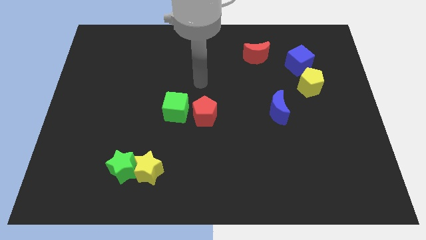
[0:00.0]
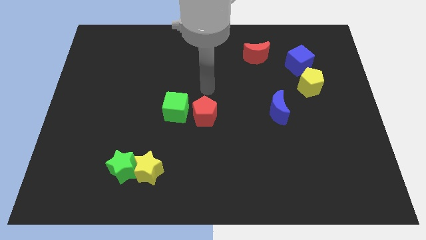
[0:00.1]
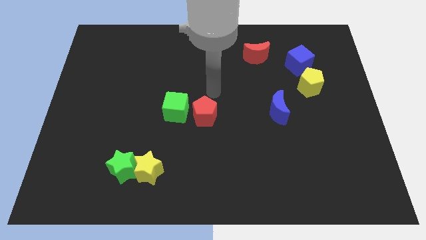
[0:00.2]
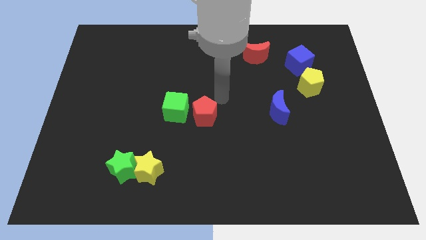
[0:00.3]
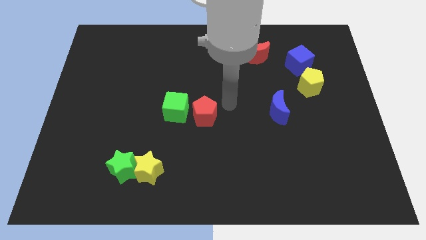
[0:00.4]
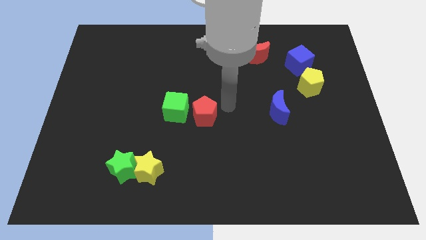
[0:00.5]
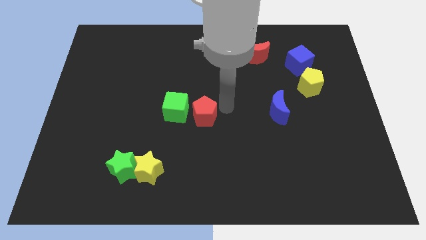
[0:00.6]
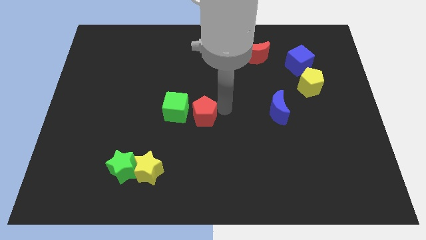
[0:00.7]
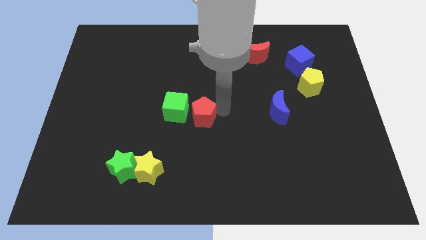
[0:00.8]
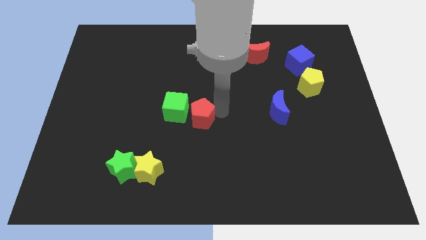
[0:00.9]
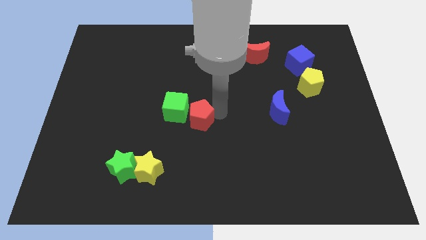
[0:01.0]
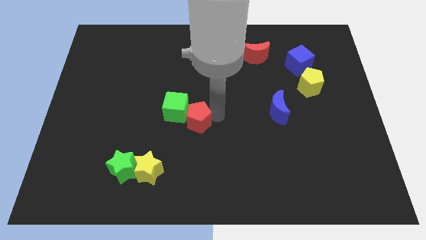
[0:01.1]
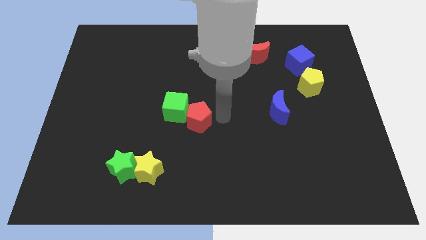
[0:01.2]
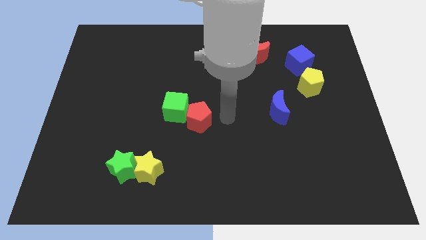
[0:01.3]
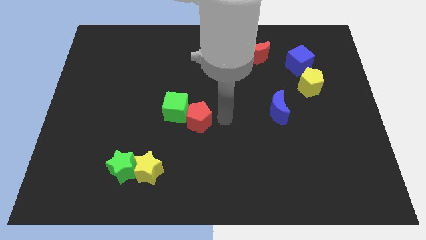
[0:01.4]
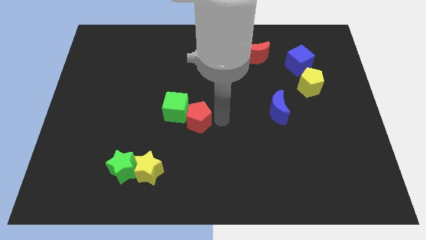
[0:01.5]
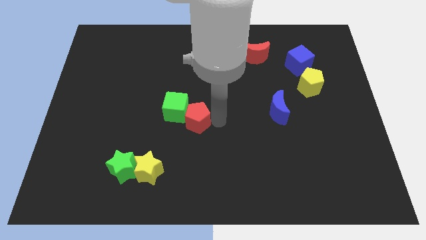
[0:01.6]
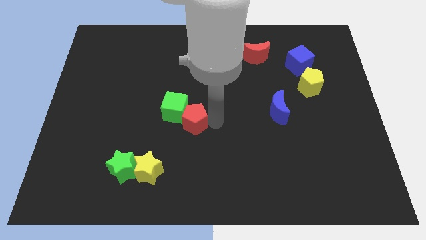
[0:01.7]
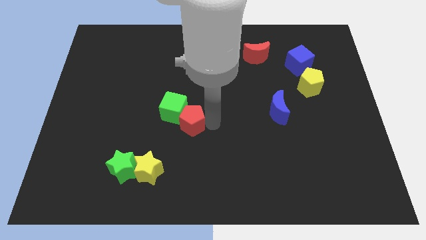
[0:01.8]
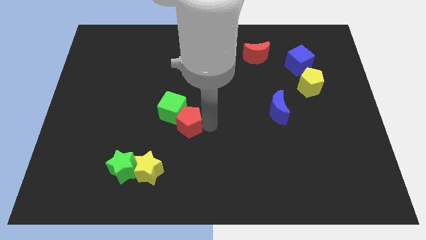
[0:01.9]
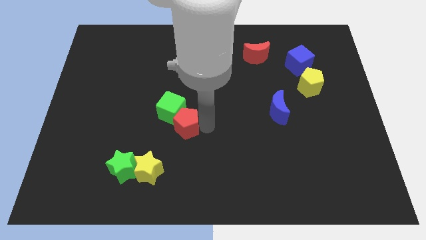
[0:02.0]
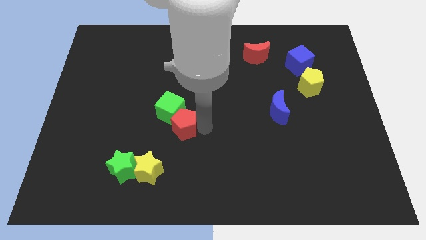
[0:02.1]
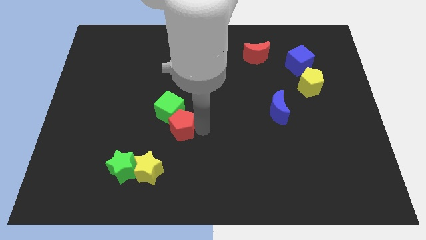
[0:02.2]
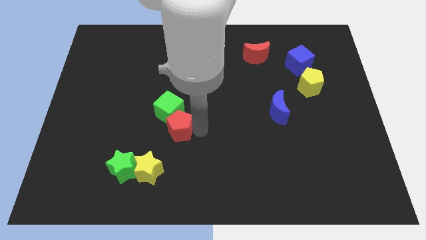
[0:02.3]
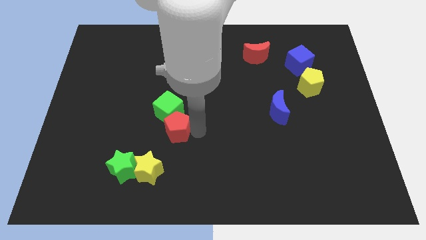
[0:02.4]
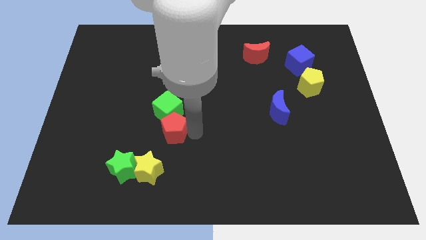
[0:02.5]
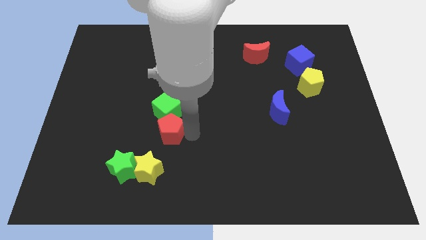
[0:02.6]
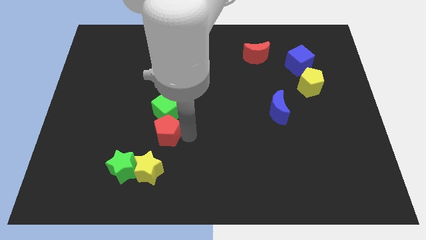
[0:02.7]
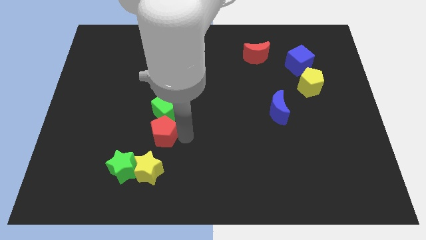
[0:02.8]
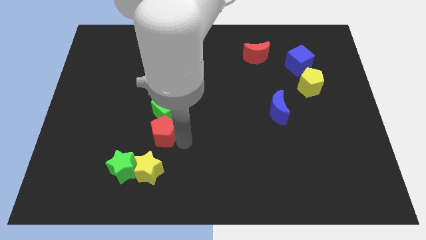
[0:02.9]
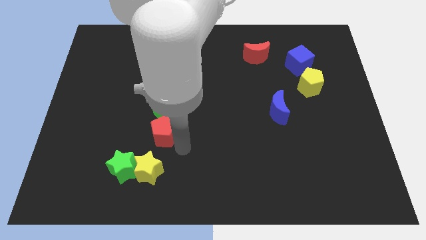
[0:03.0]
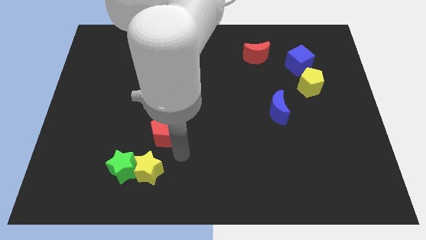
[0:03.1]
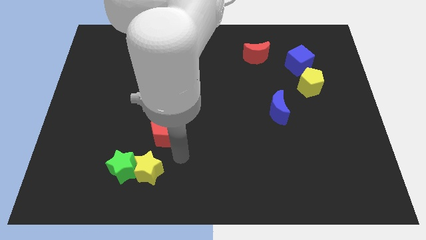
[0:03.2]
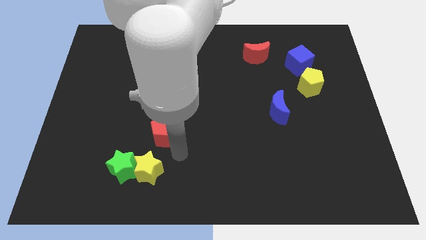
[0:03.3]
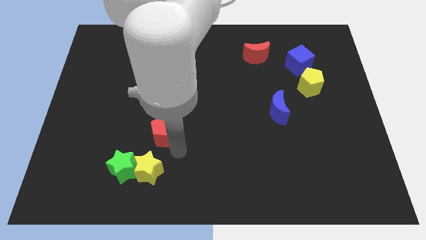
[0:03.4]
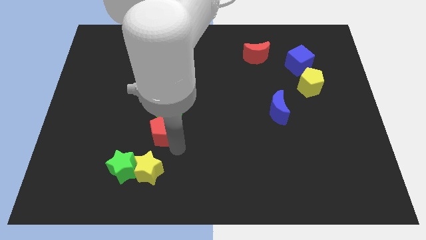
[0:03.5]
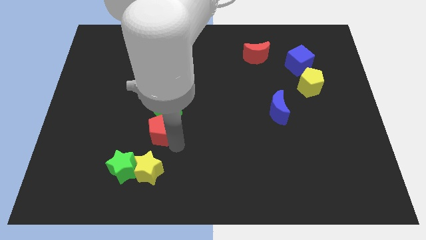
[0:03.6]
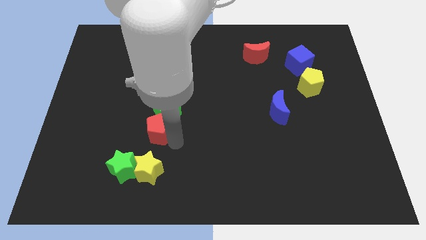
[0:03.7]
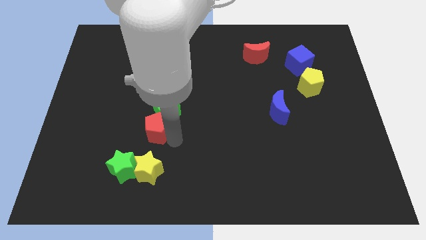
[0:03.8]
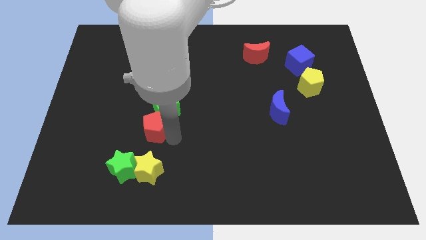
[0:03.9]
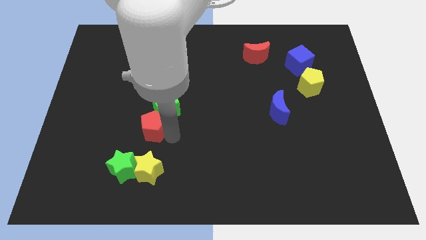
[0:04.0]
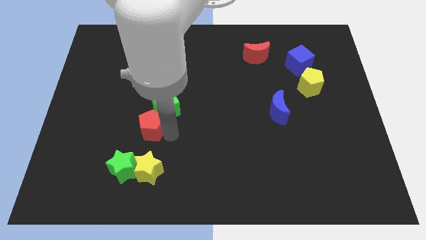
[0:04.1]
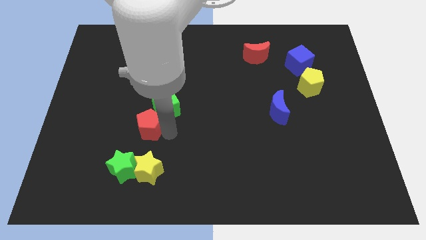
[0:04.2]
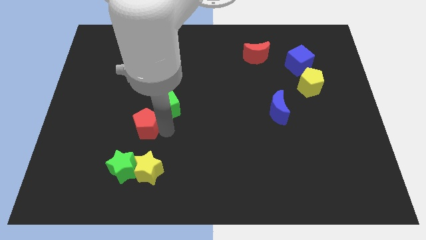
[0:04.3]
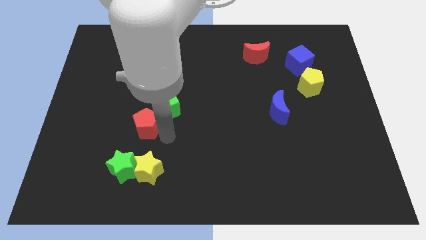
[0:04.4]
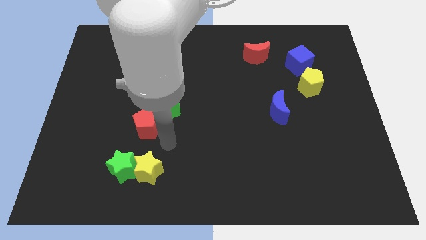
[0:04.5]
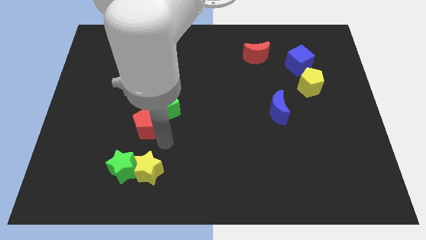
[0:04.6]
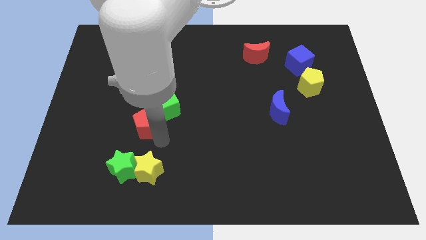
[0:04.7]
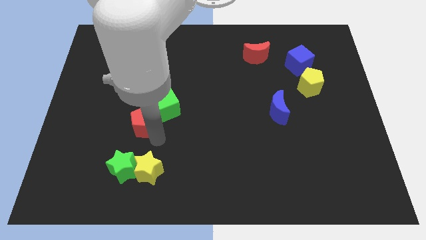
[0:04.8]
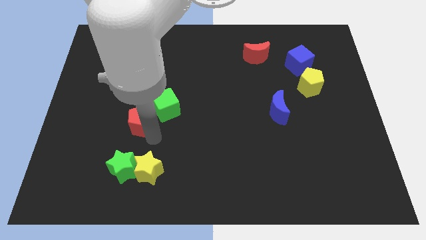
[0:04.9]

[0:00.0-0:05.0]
push the red pentagon to the left side of the green cube

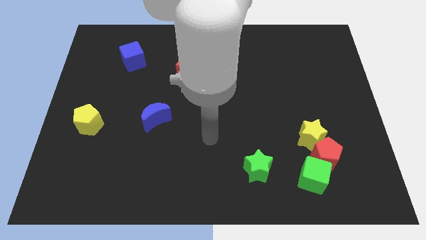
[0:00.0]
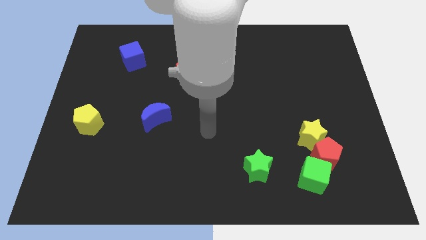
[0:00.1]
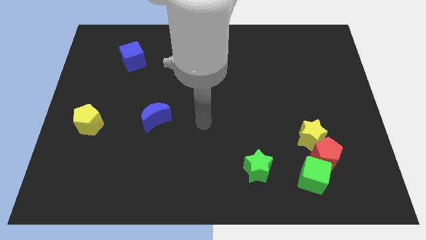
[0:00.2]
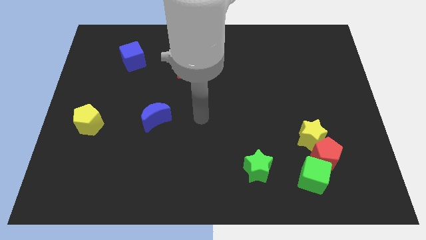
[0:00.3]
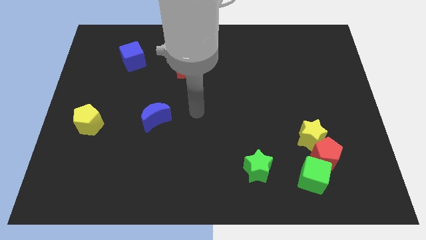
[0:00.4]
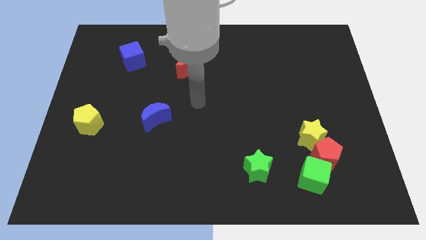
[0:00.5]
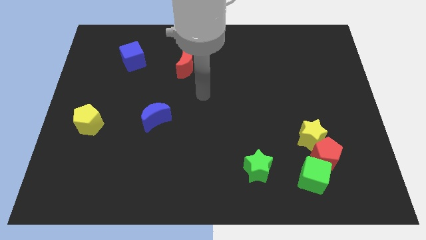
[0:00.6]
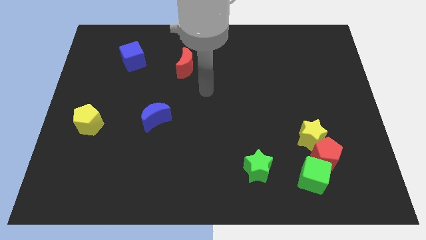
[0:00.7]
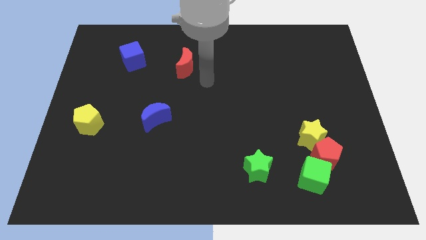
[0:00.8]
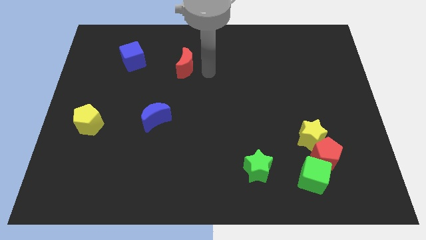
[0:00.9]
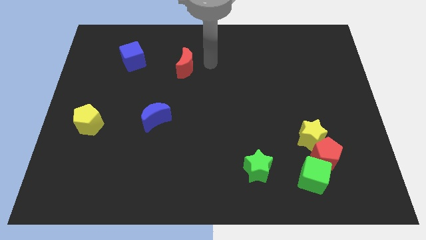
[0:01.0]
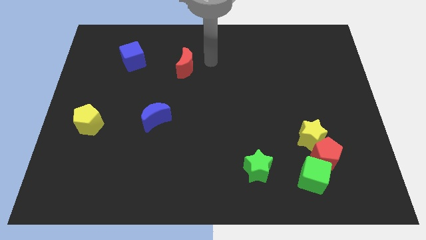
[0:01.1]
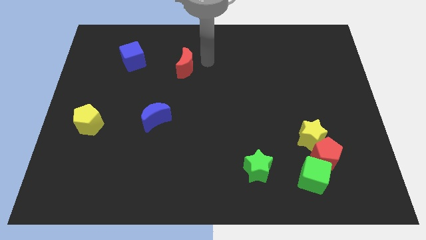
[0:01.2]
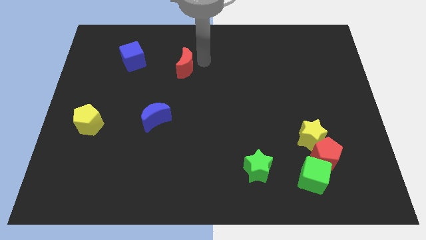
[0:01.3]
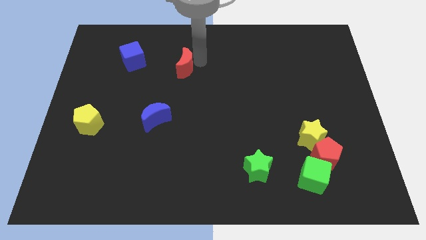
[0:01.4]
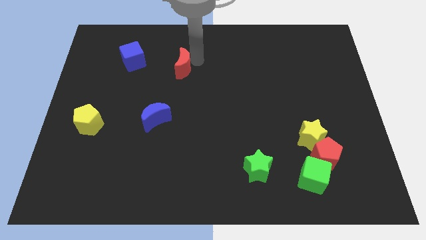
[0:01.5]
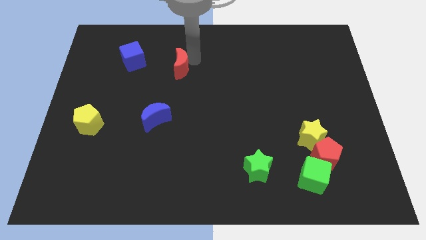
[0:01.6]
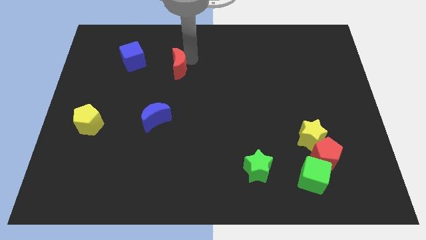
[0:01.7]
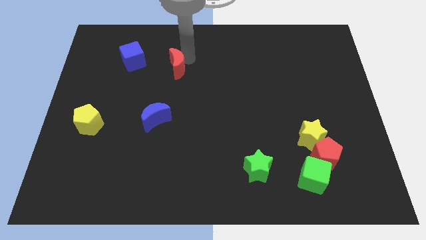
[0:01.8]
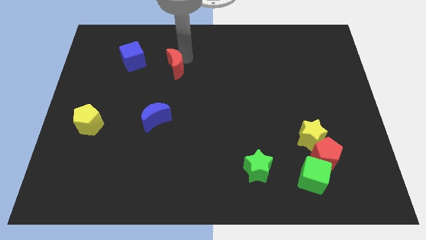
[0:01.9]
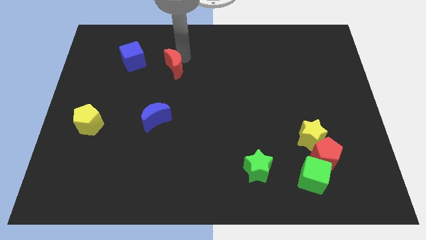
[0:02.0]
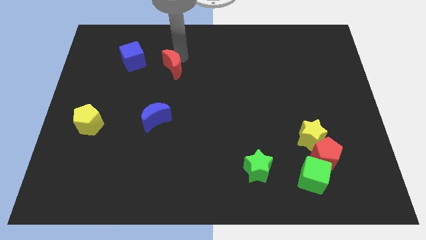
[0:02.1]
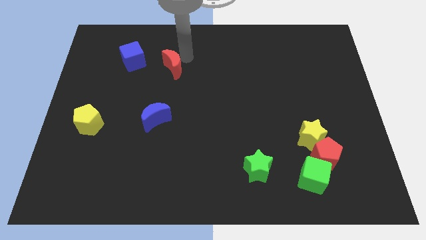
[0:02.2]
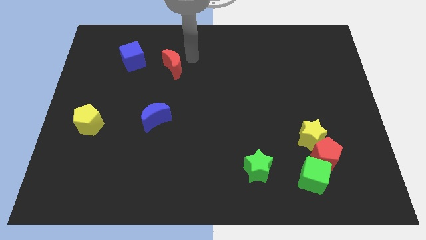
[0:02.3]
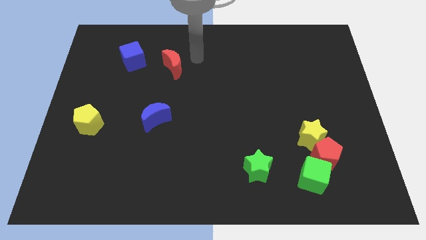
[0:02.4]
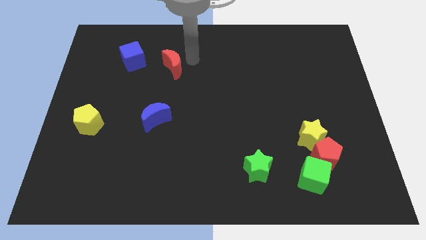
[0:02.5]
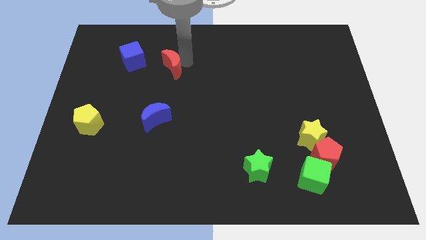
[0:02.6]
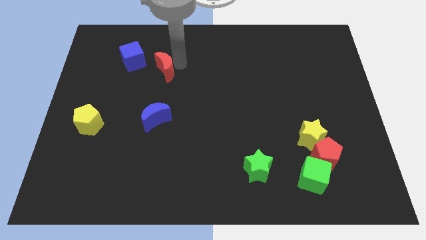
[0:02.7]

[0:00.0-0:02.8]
push the red moon diagonally down and to the right of the blue cube
